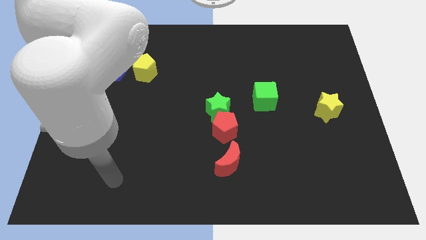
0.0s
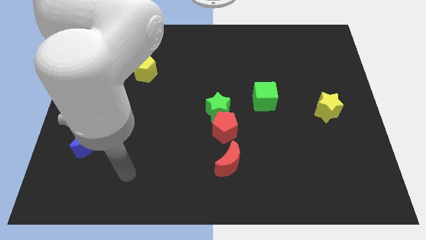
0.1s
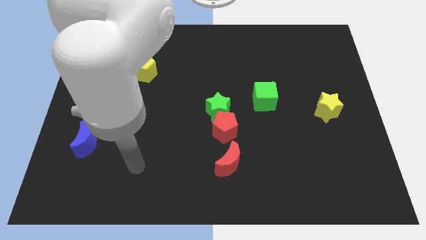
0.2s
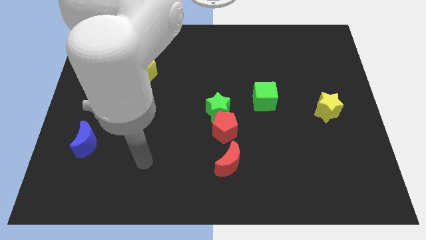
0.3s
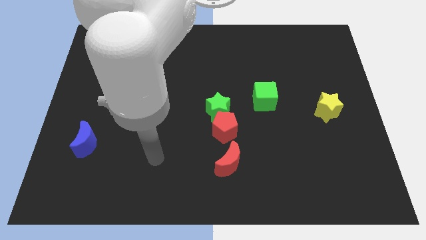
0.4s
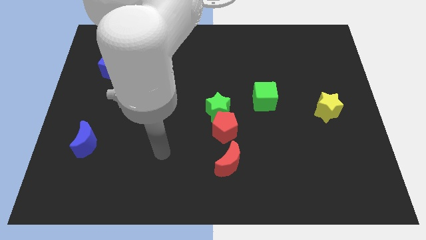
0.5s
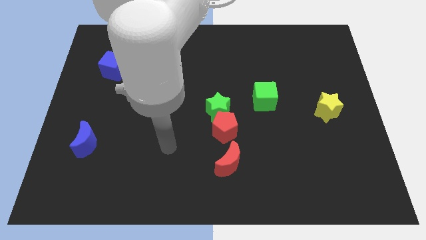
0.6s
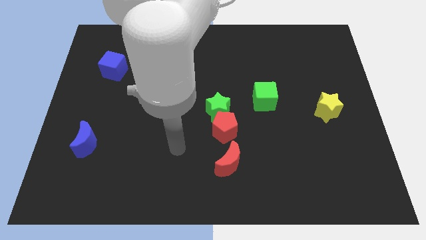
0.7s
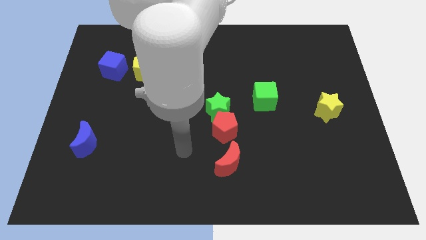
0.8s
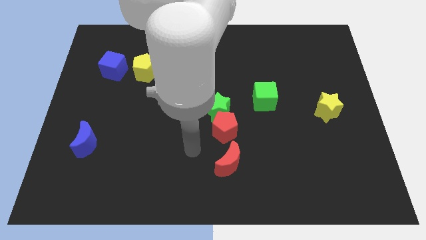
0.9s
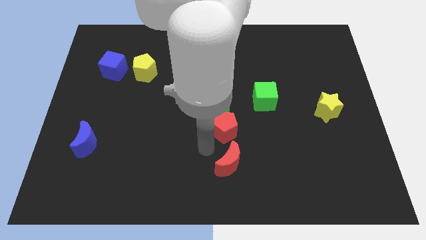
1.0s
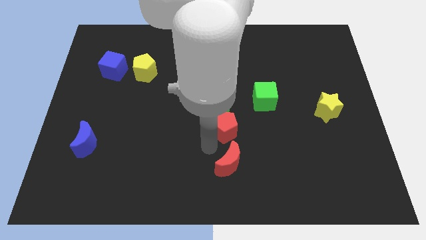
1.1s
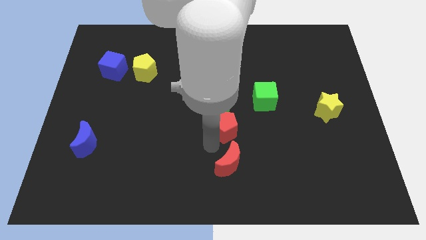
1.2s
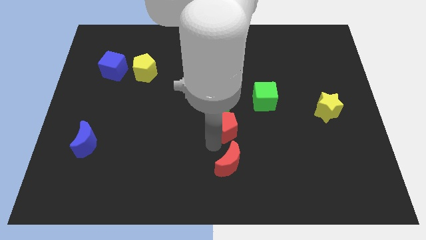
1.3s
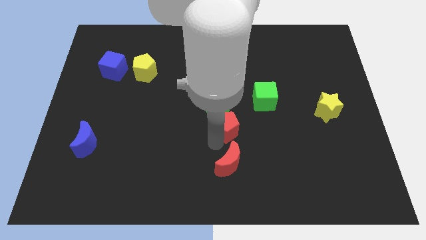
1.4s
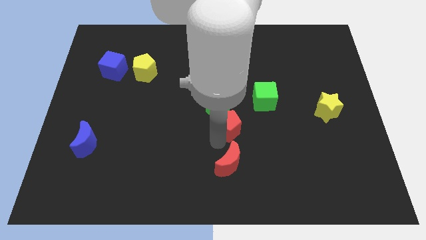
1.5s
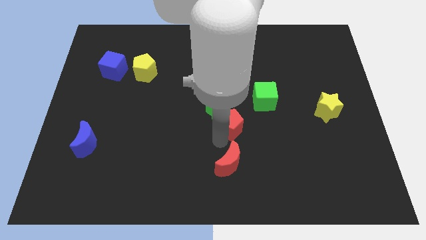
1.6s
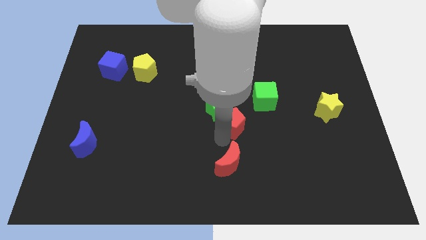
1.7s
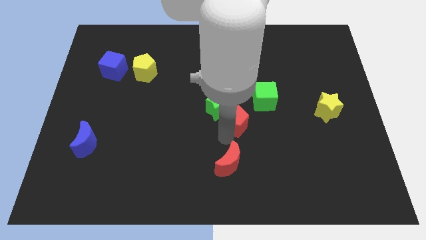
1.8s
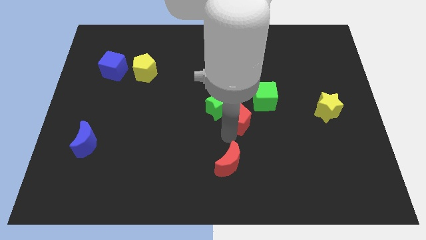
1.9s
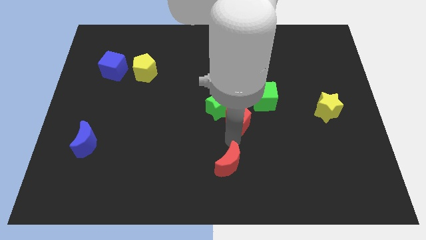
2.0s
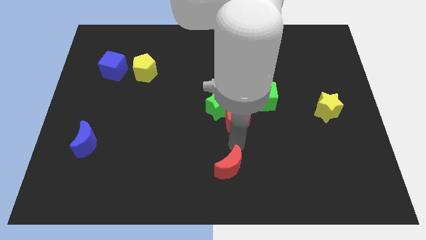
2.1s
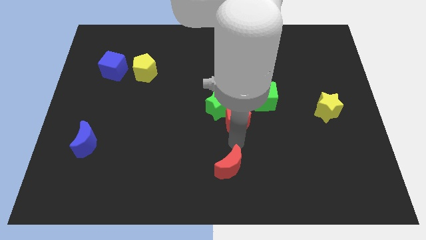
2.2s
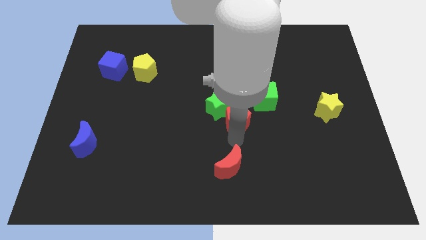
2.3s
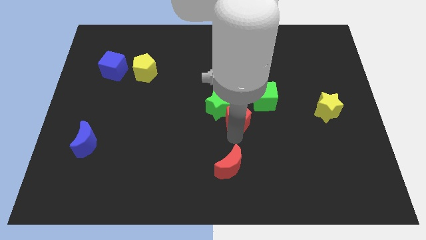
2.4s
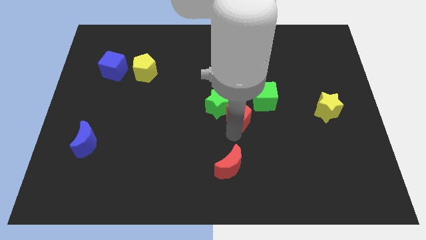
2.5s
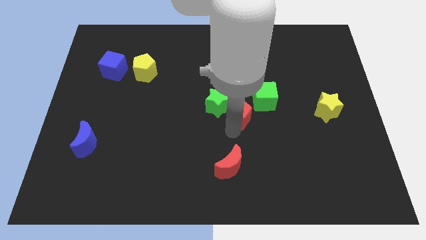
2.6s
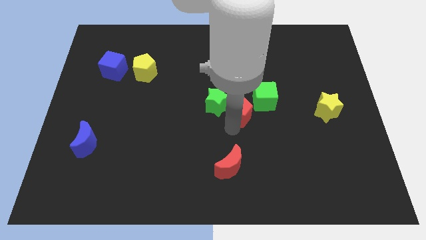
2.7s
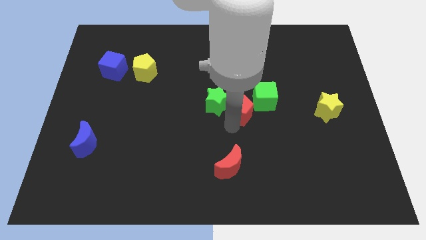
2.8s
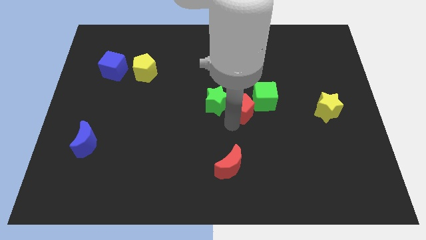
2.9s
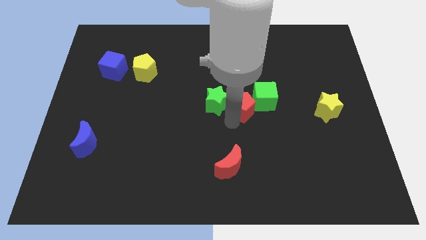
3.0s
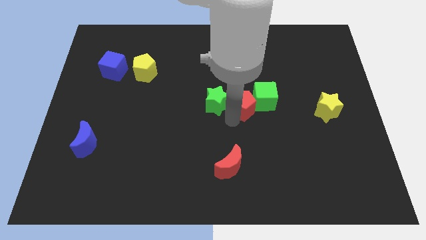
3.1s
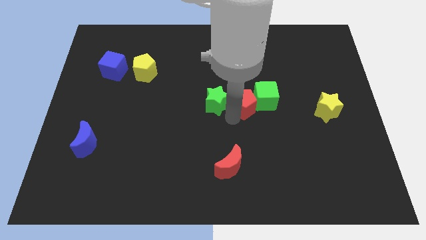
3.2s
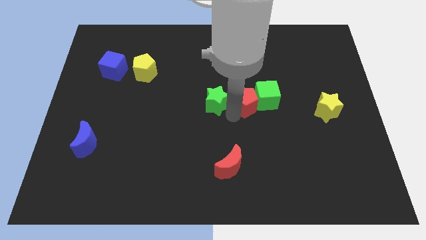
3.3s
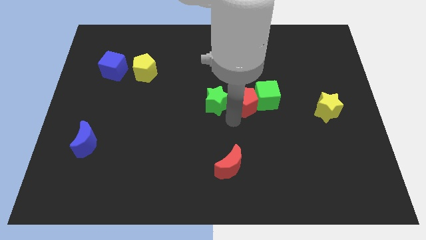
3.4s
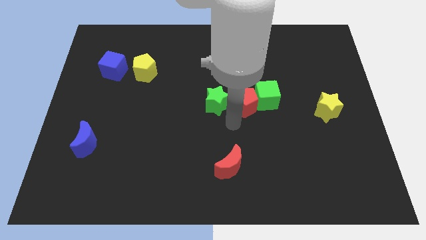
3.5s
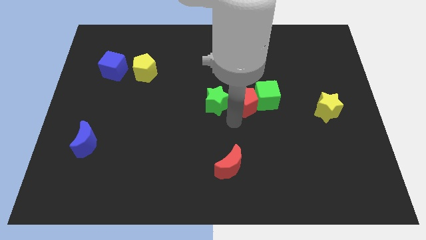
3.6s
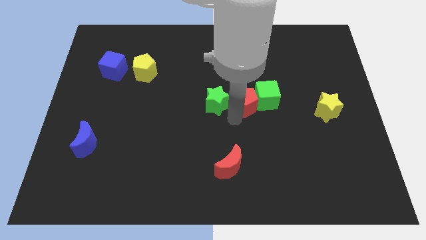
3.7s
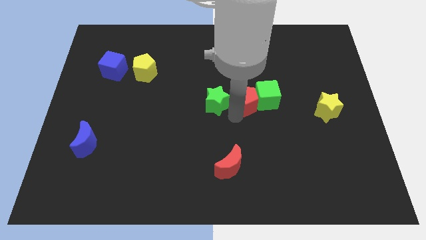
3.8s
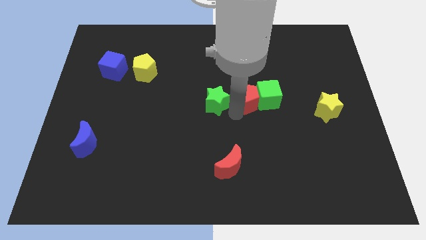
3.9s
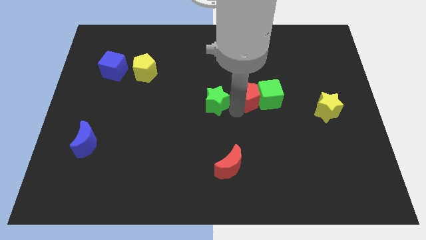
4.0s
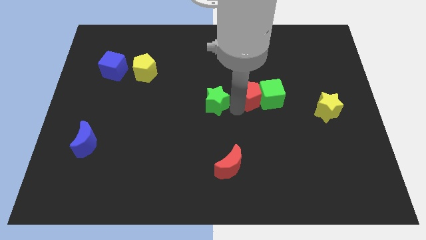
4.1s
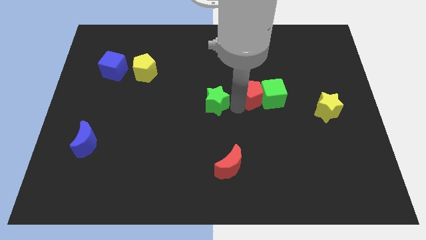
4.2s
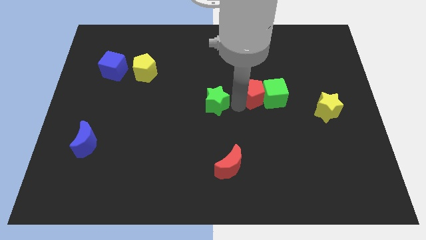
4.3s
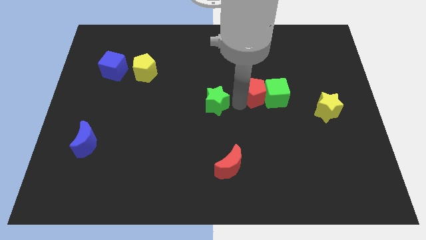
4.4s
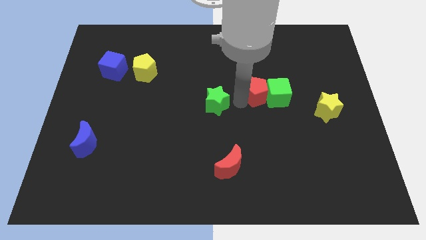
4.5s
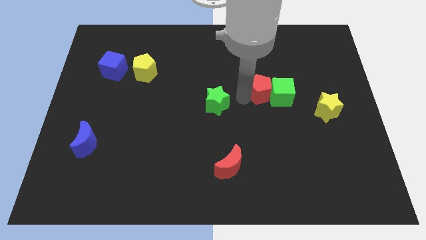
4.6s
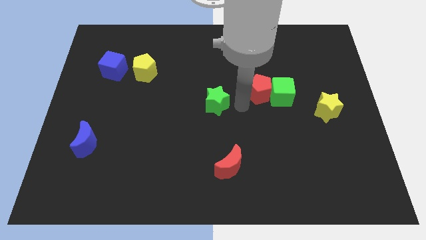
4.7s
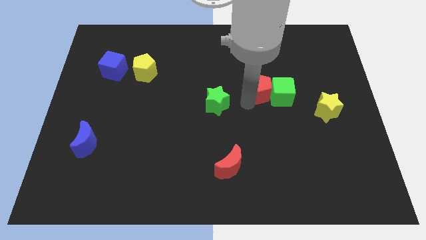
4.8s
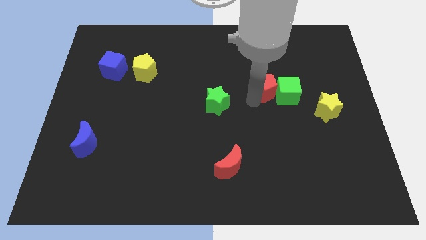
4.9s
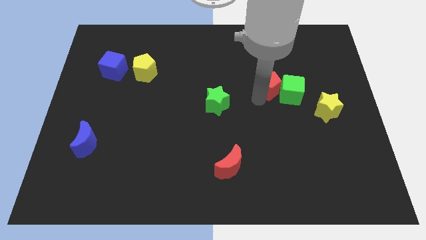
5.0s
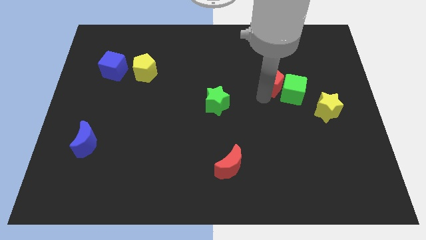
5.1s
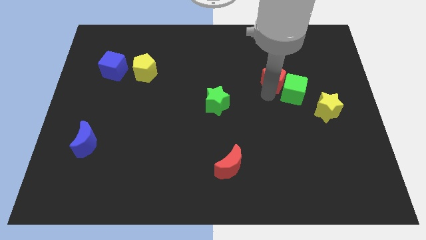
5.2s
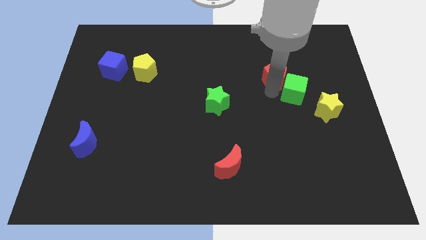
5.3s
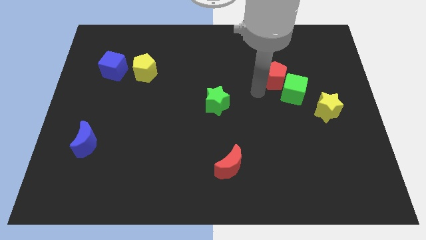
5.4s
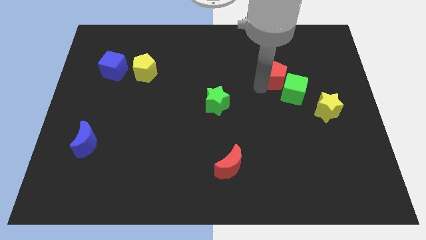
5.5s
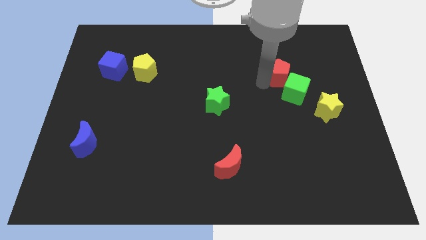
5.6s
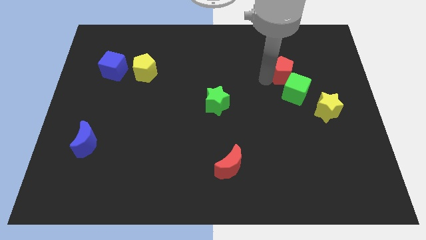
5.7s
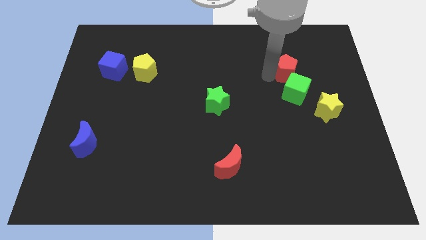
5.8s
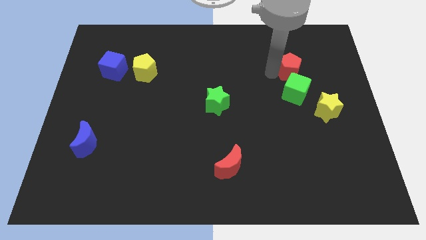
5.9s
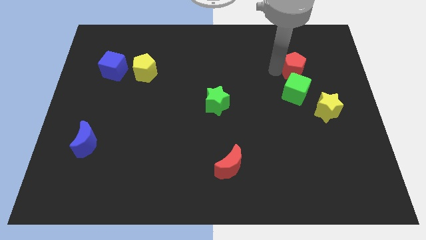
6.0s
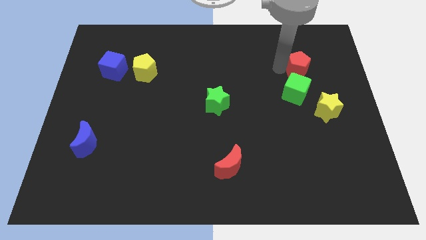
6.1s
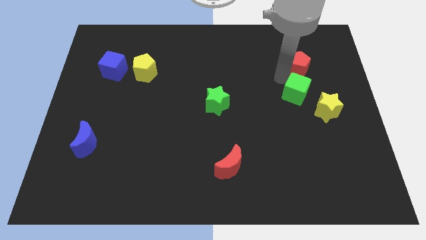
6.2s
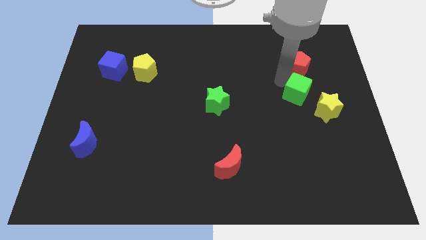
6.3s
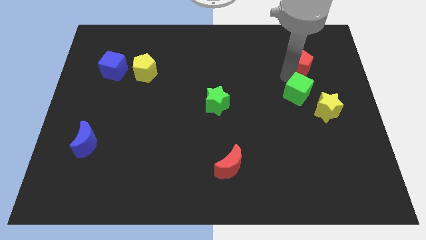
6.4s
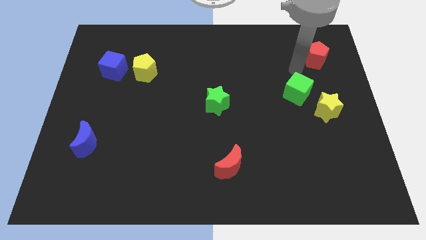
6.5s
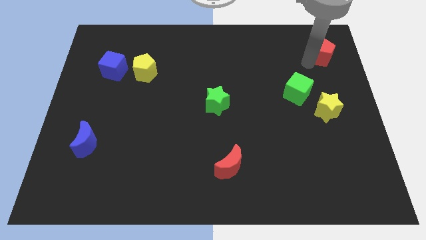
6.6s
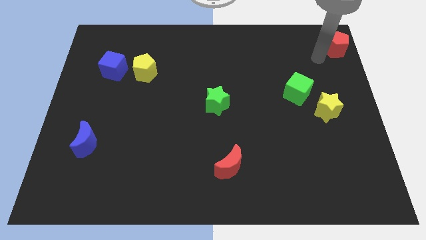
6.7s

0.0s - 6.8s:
slide the red pentagon to the upper right corner

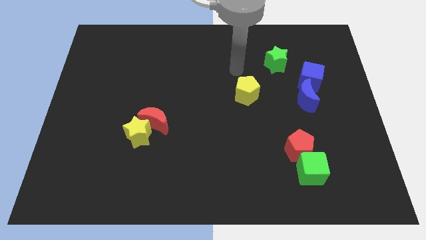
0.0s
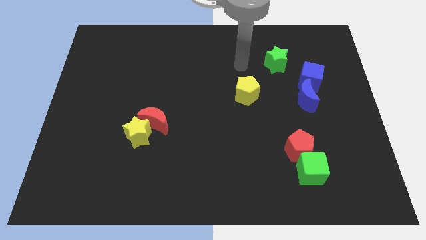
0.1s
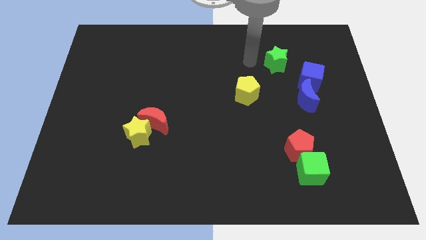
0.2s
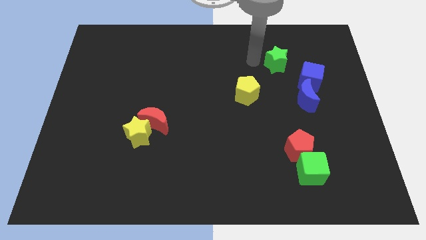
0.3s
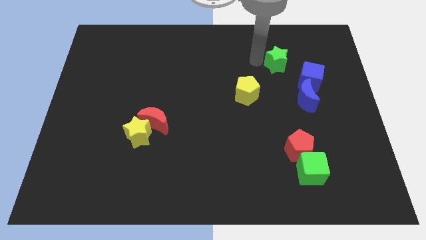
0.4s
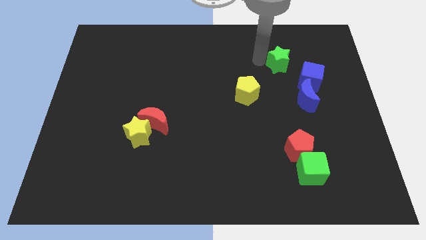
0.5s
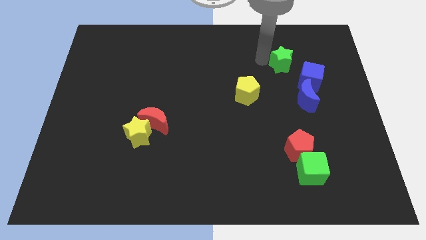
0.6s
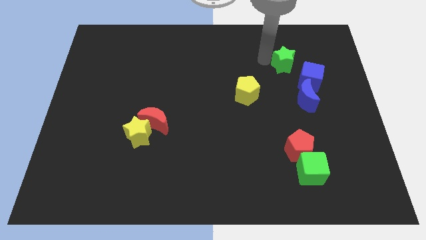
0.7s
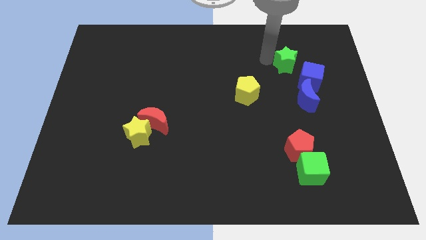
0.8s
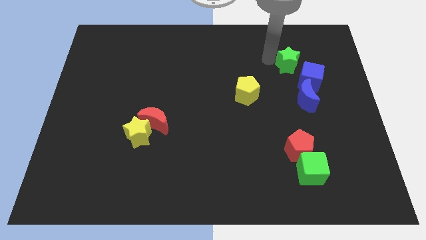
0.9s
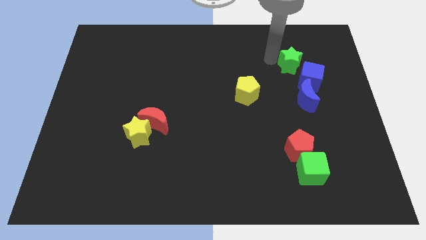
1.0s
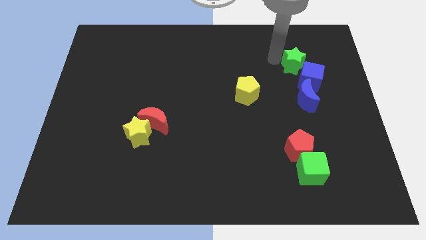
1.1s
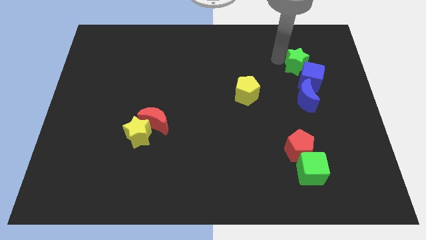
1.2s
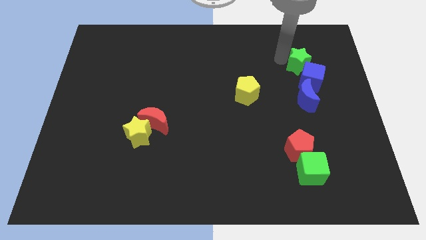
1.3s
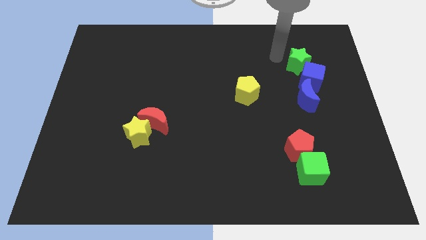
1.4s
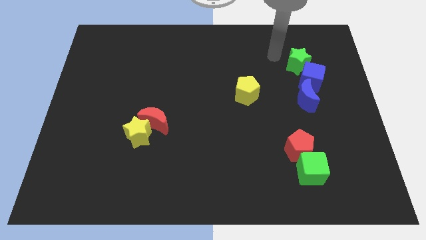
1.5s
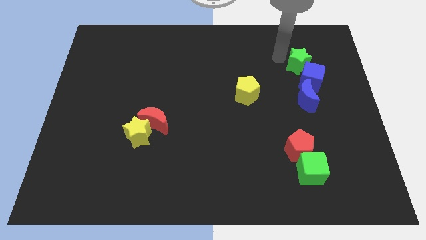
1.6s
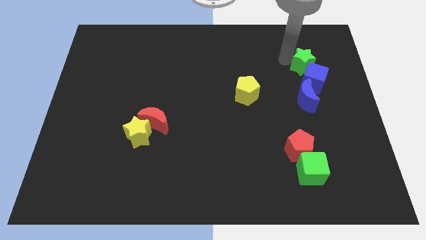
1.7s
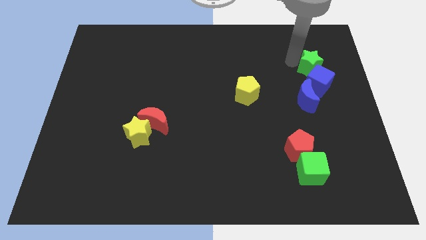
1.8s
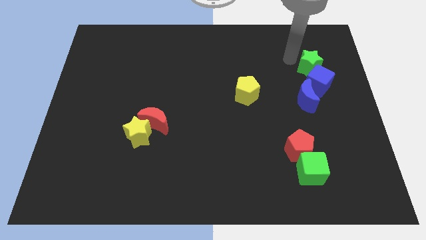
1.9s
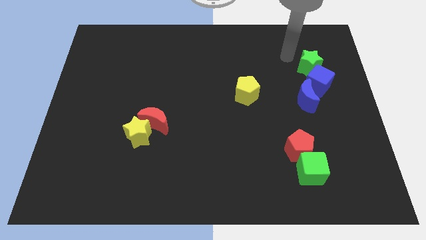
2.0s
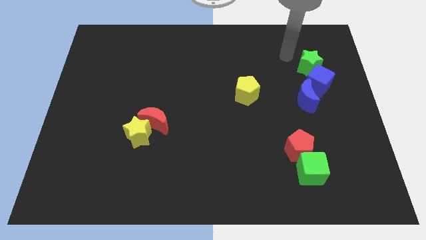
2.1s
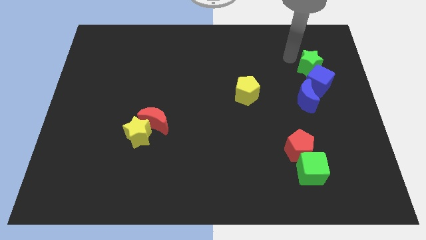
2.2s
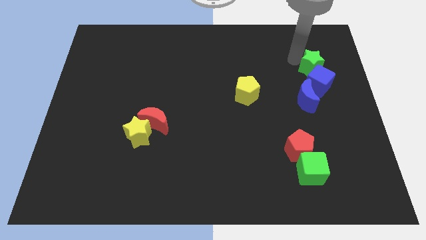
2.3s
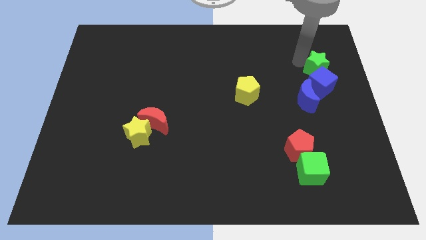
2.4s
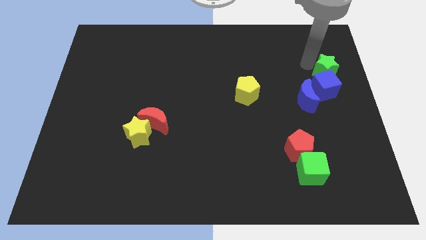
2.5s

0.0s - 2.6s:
move the green star to the center right
